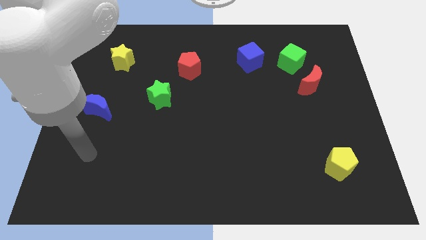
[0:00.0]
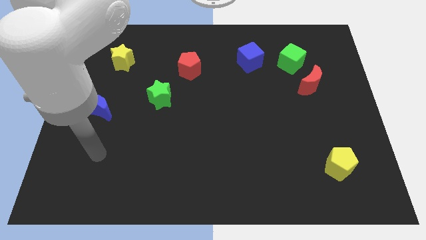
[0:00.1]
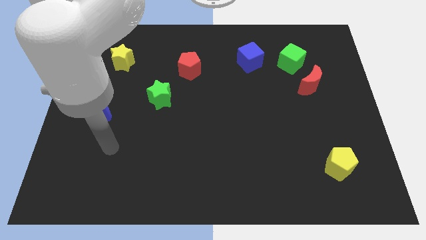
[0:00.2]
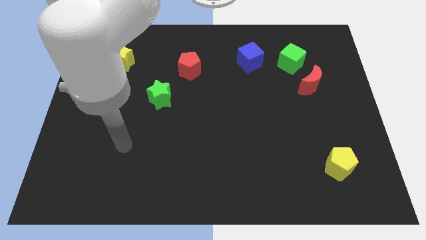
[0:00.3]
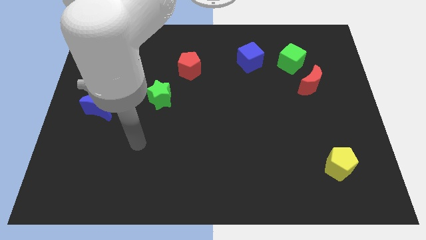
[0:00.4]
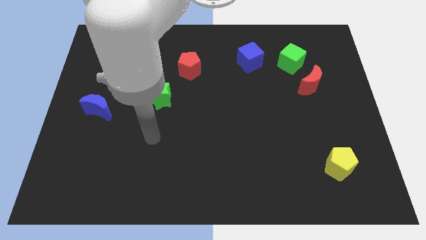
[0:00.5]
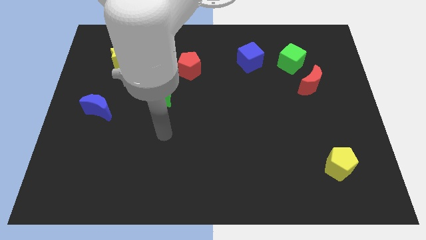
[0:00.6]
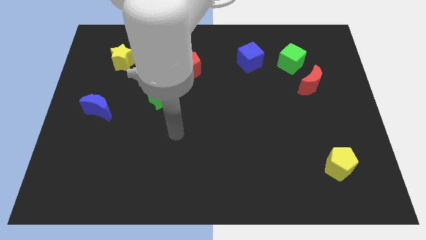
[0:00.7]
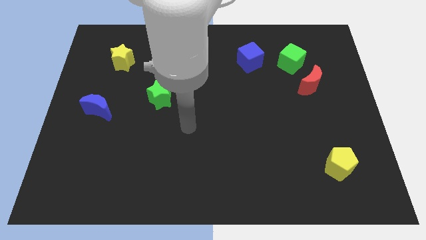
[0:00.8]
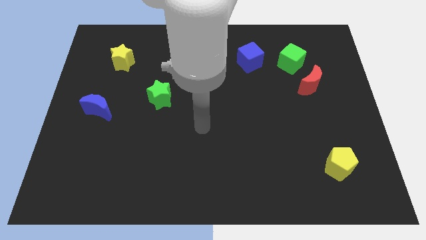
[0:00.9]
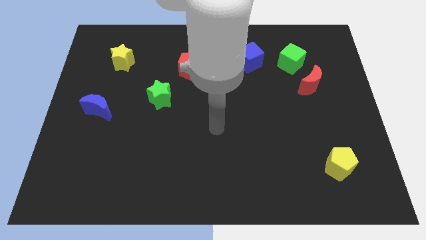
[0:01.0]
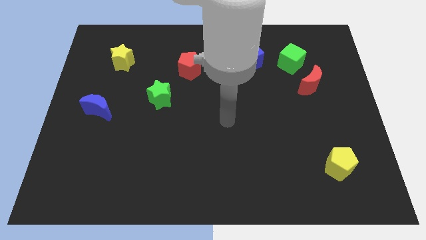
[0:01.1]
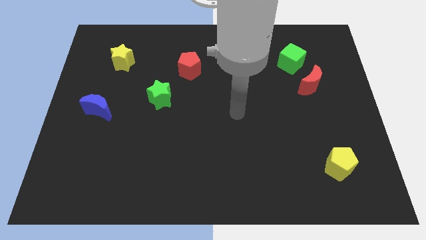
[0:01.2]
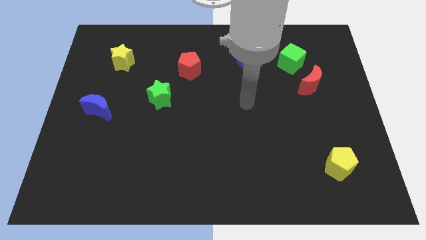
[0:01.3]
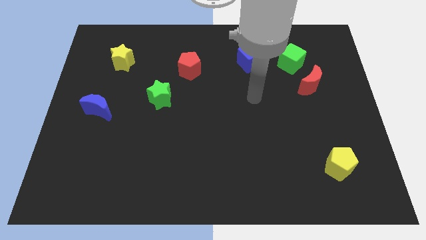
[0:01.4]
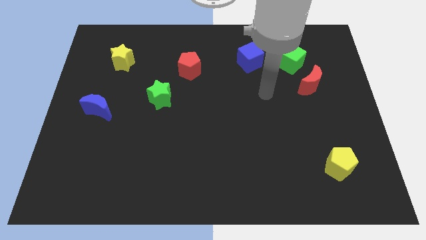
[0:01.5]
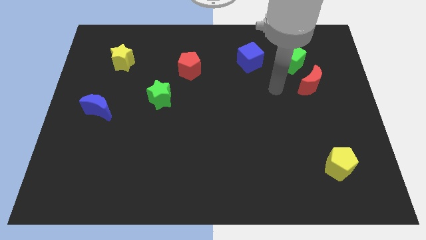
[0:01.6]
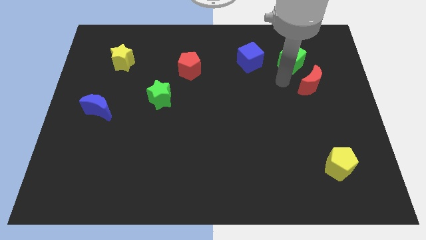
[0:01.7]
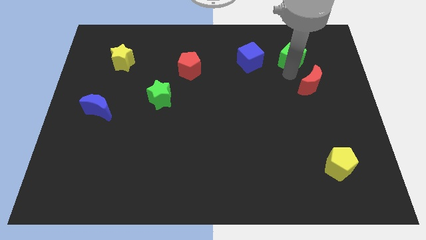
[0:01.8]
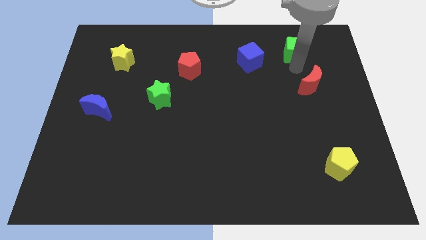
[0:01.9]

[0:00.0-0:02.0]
pull the red moon apart from the green cube

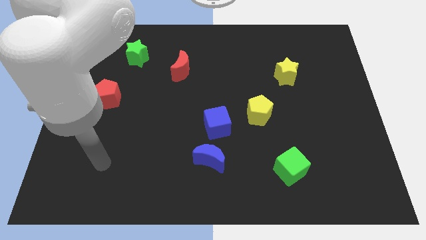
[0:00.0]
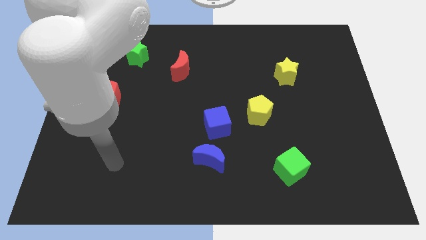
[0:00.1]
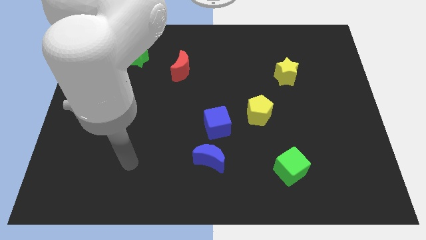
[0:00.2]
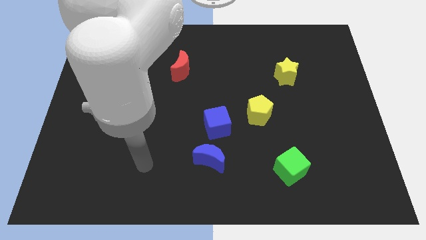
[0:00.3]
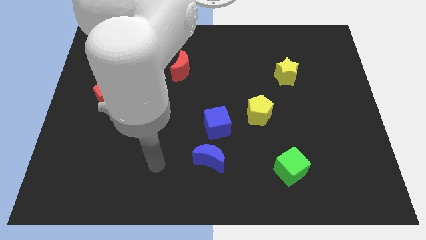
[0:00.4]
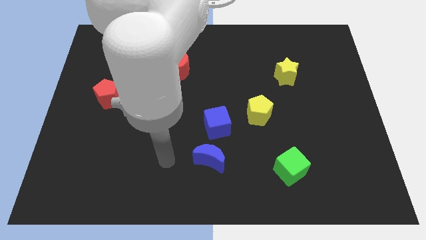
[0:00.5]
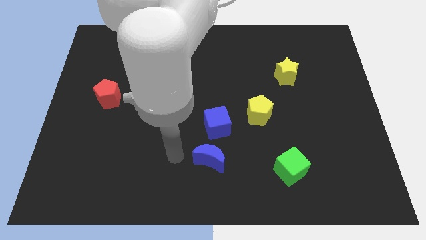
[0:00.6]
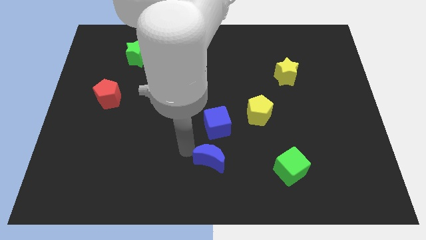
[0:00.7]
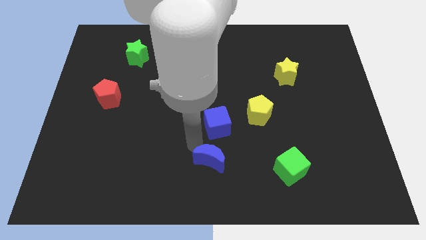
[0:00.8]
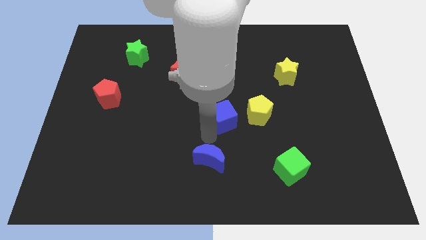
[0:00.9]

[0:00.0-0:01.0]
move the blue moon away from the blue cube

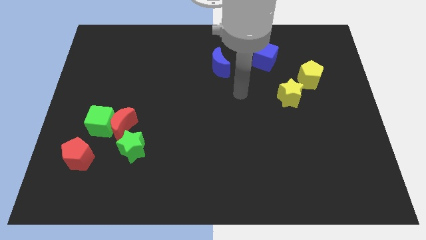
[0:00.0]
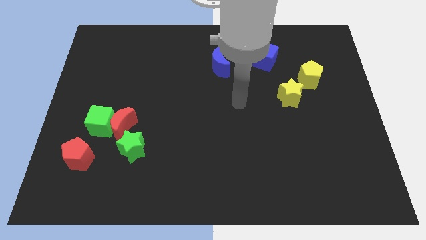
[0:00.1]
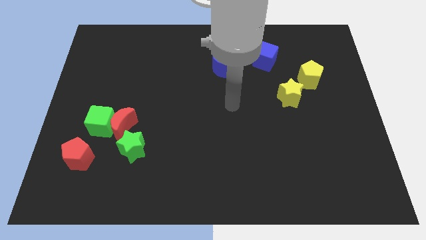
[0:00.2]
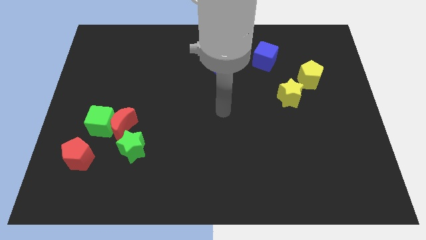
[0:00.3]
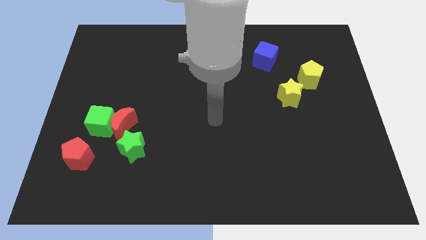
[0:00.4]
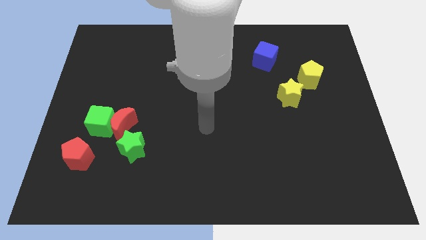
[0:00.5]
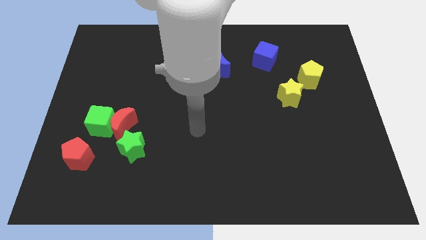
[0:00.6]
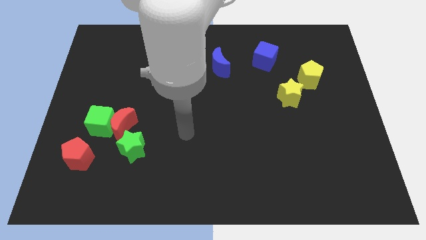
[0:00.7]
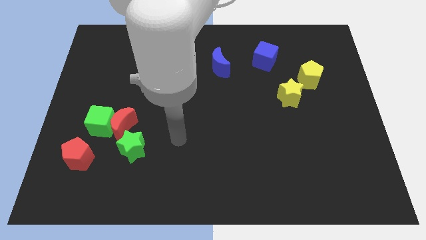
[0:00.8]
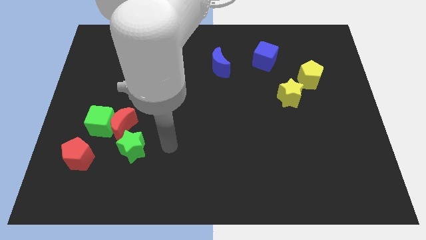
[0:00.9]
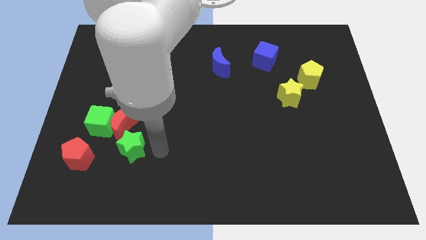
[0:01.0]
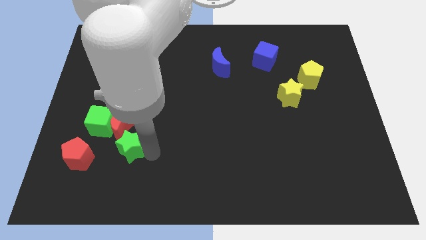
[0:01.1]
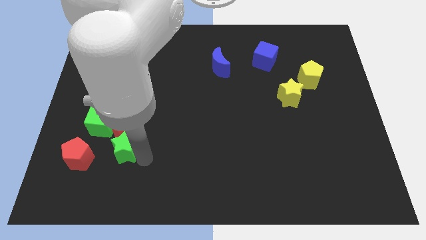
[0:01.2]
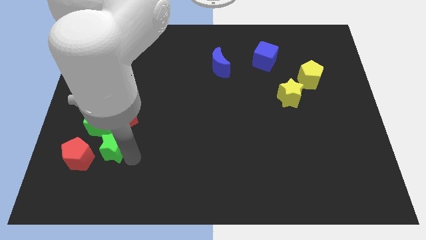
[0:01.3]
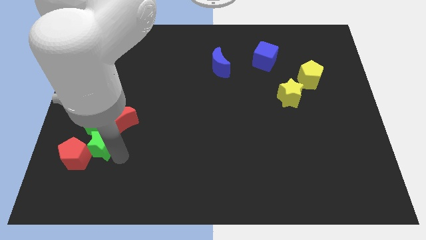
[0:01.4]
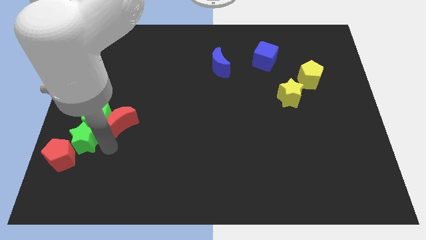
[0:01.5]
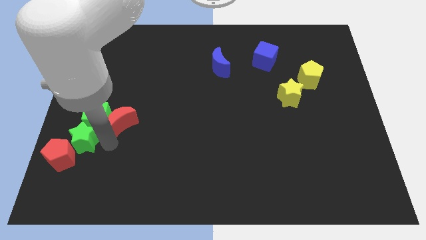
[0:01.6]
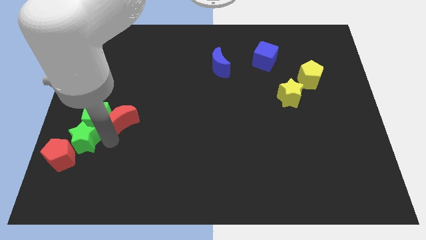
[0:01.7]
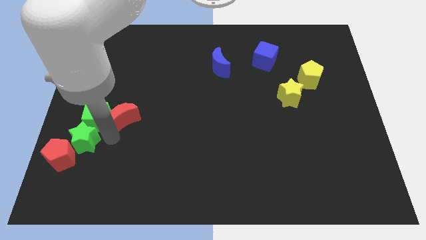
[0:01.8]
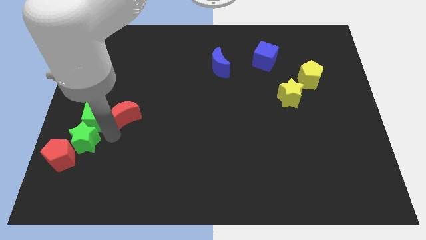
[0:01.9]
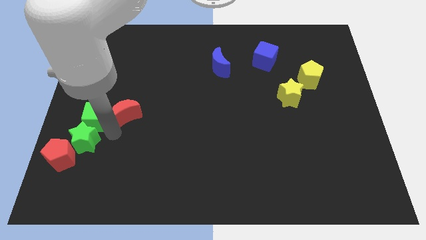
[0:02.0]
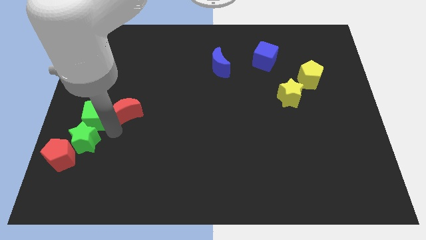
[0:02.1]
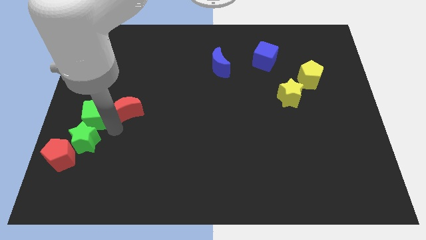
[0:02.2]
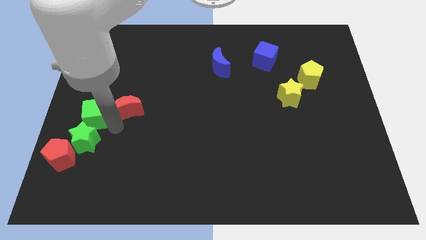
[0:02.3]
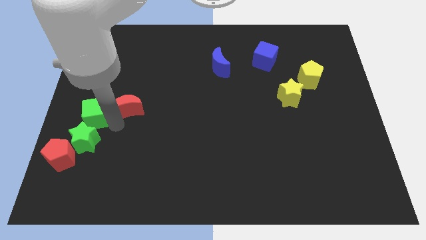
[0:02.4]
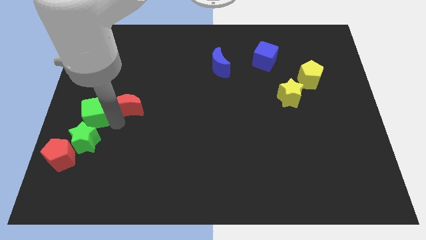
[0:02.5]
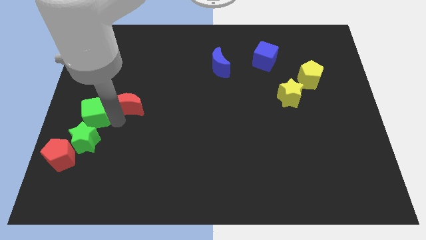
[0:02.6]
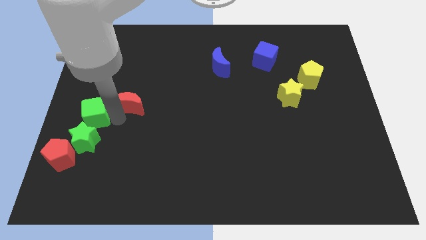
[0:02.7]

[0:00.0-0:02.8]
pull the red moon apart from the green cube and green star

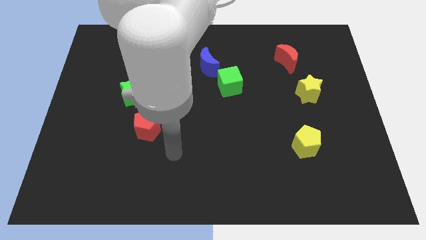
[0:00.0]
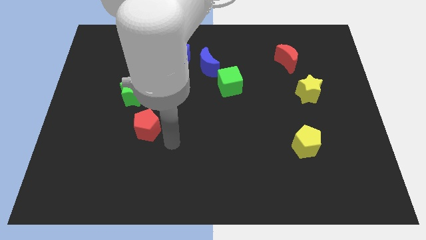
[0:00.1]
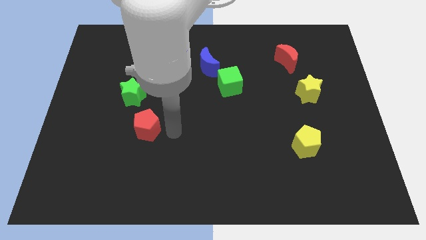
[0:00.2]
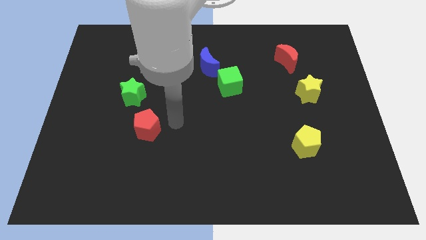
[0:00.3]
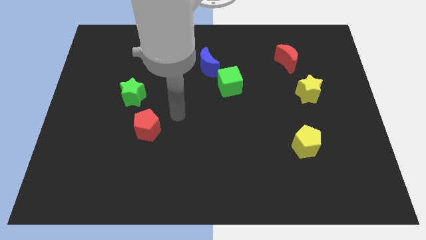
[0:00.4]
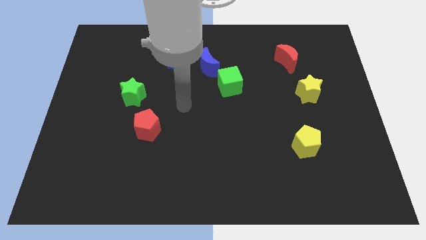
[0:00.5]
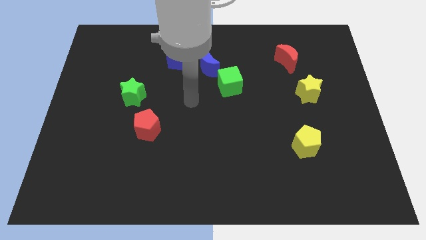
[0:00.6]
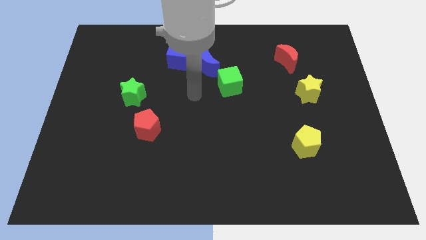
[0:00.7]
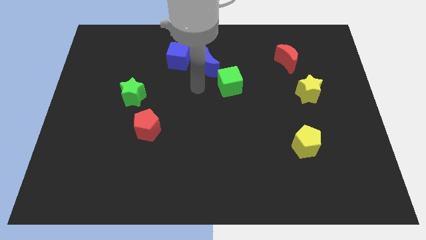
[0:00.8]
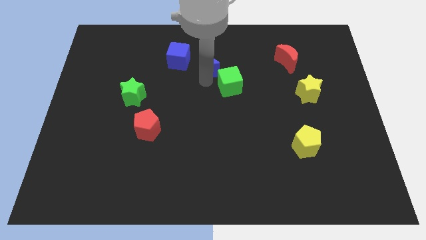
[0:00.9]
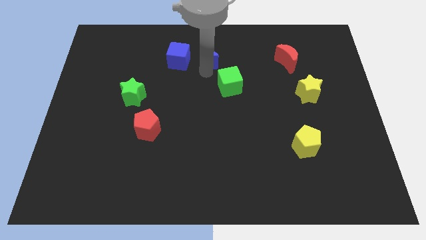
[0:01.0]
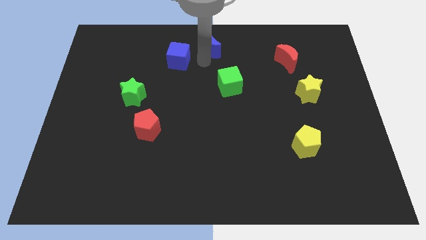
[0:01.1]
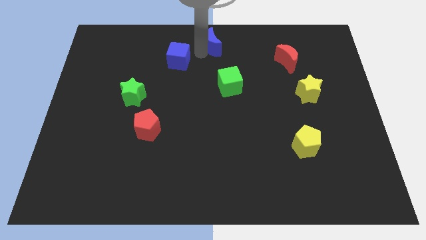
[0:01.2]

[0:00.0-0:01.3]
move the blue cube away from the blue moon

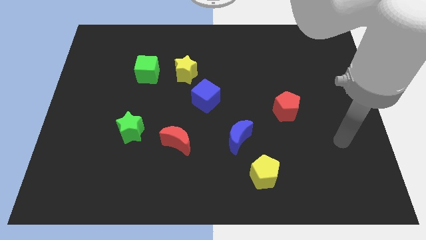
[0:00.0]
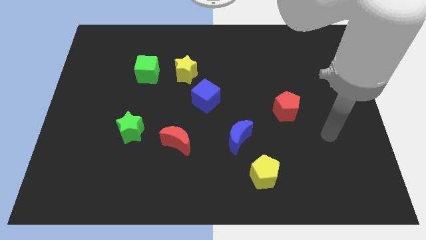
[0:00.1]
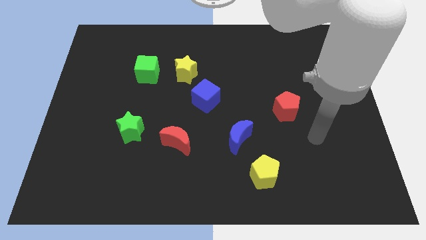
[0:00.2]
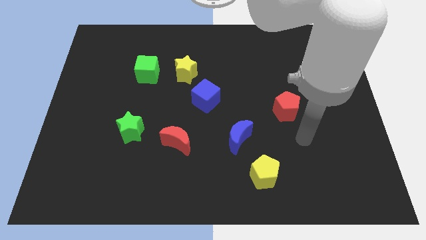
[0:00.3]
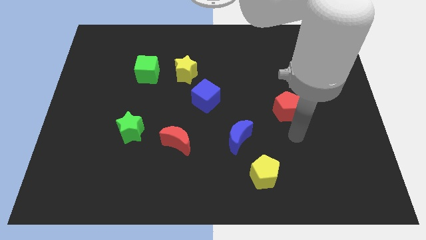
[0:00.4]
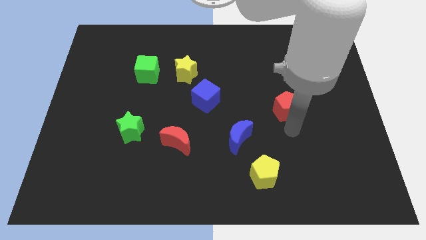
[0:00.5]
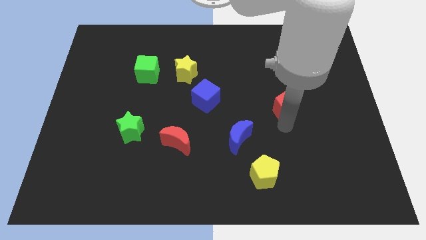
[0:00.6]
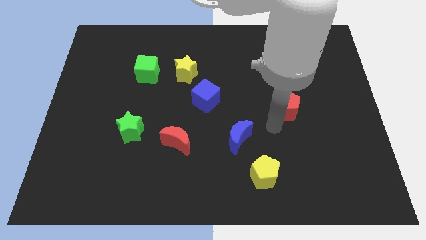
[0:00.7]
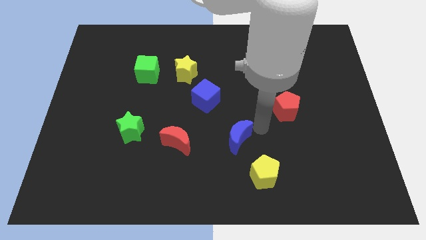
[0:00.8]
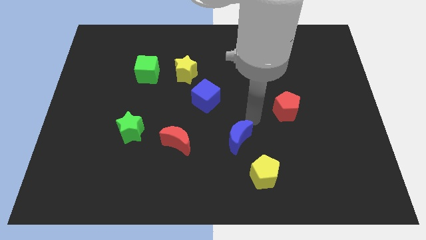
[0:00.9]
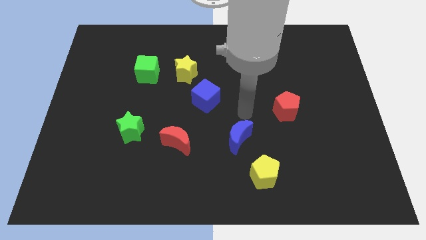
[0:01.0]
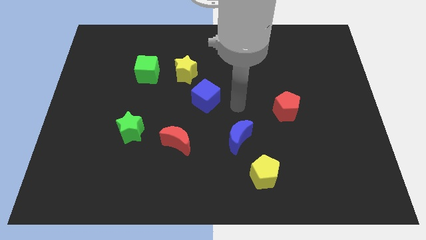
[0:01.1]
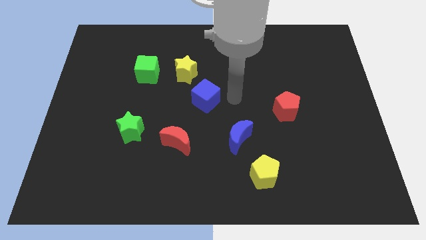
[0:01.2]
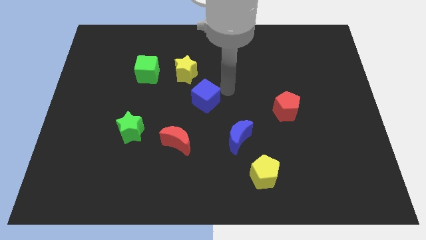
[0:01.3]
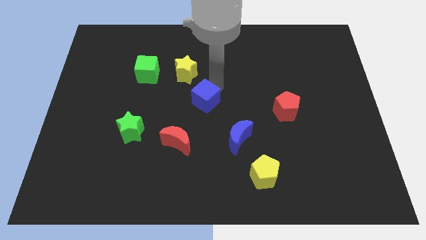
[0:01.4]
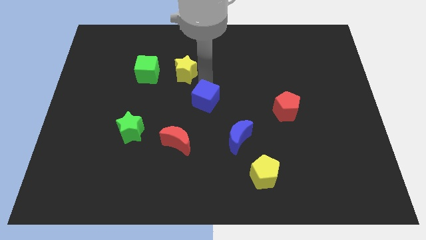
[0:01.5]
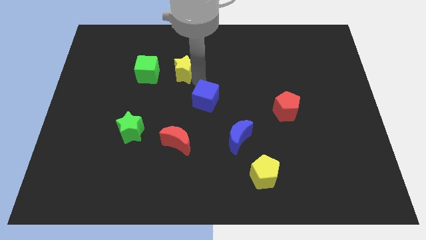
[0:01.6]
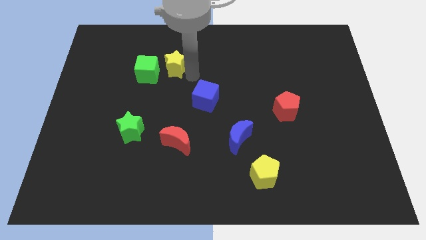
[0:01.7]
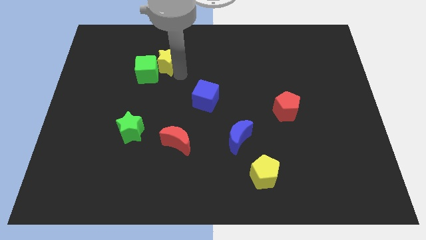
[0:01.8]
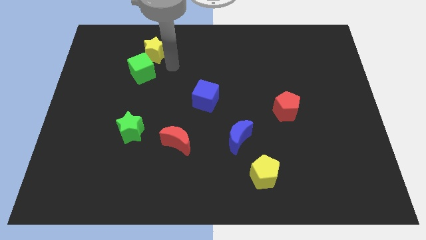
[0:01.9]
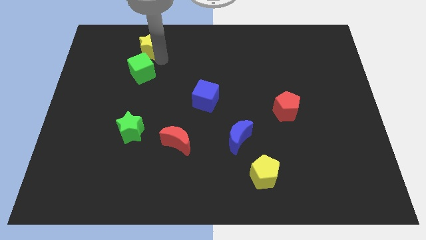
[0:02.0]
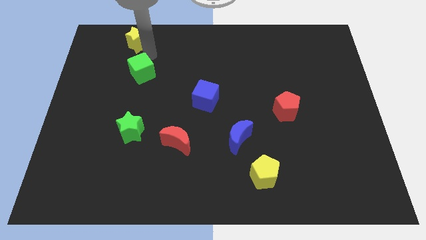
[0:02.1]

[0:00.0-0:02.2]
separate the green cube from the yellow star

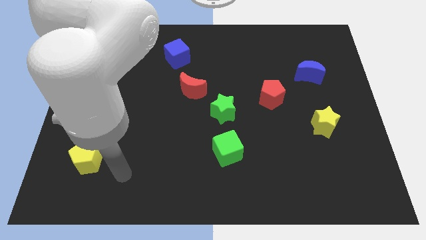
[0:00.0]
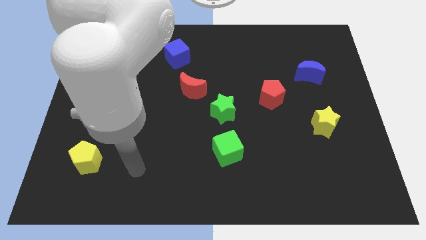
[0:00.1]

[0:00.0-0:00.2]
pull the red moon apart from the green star
